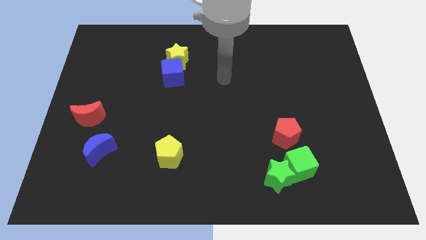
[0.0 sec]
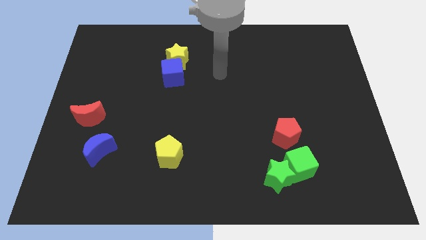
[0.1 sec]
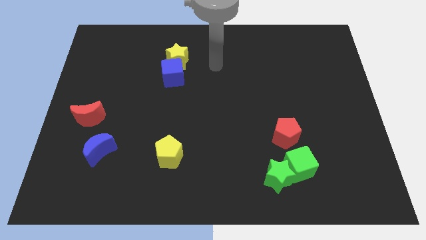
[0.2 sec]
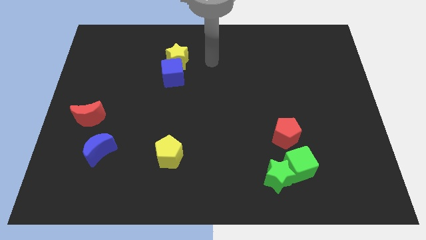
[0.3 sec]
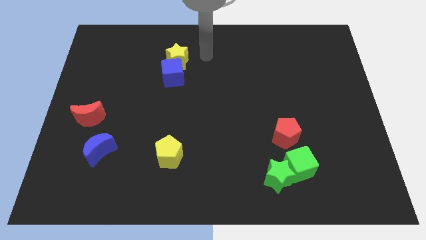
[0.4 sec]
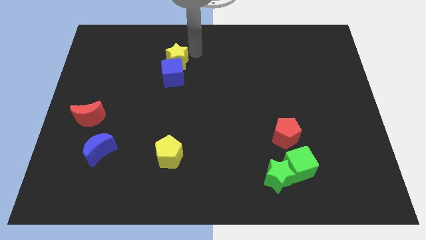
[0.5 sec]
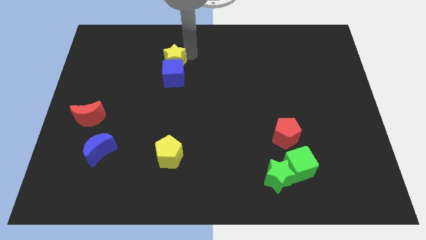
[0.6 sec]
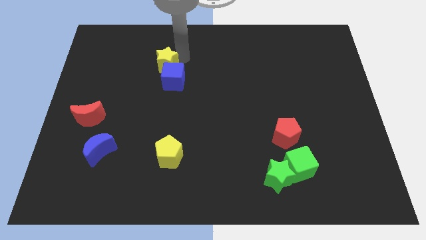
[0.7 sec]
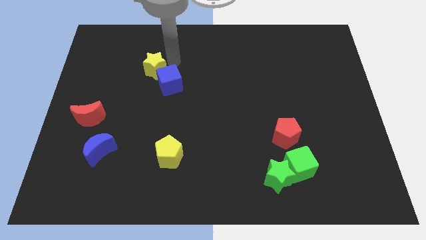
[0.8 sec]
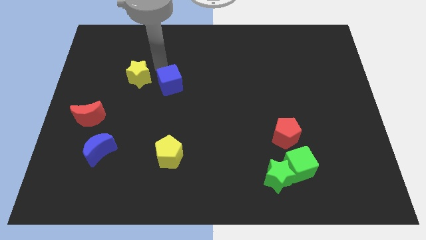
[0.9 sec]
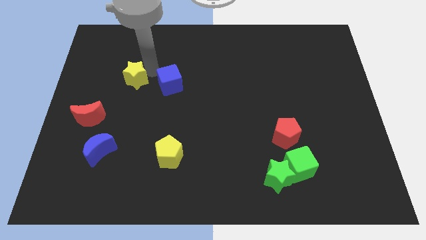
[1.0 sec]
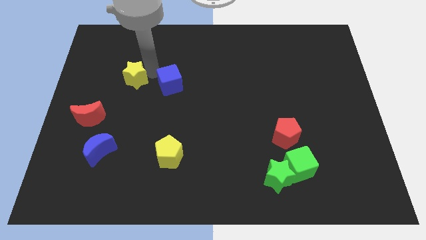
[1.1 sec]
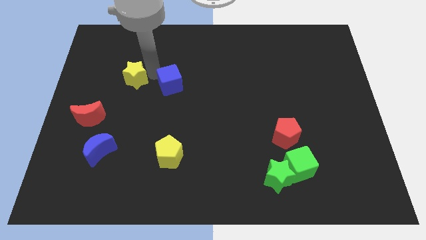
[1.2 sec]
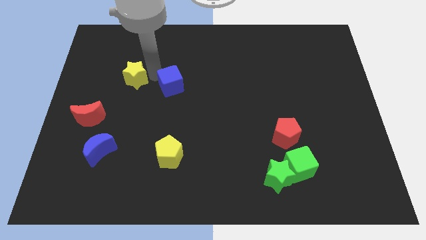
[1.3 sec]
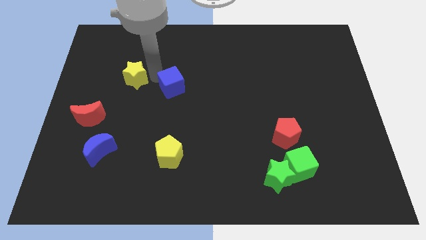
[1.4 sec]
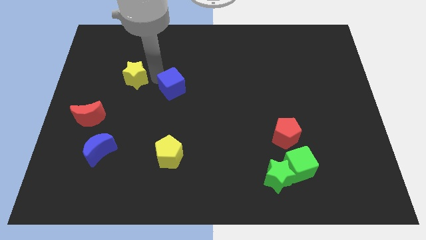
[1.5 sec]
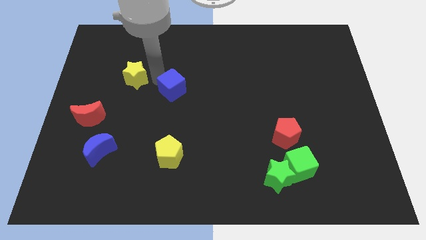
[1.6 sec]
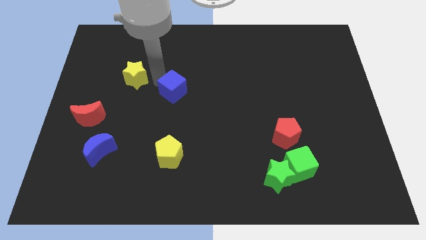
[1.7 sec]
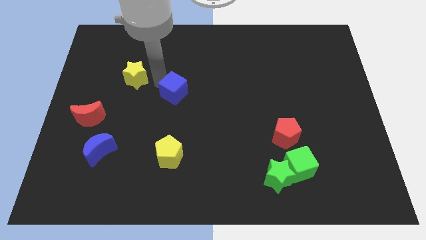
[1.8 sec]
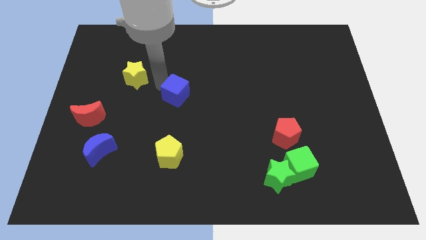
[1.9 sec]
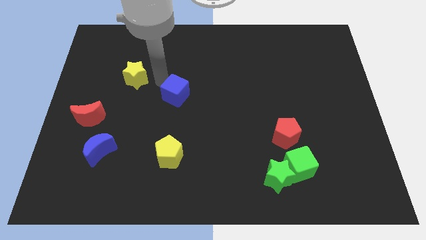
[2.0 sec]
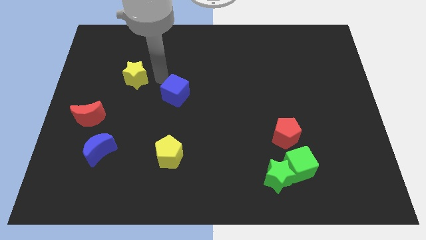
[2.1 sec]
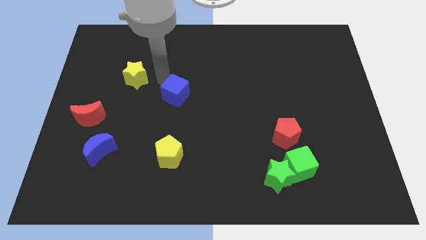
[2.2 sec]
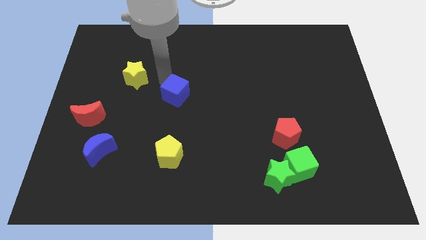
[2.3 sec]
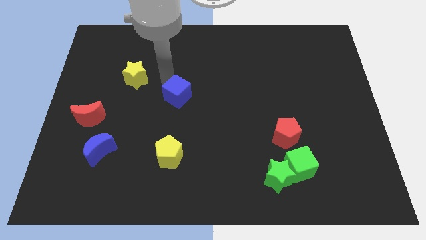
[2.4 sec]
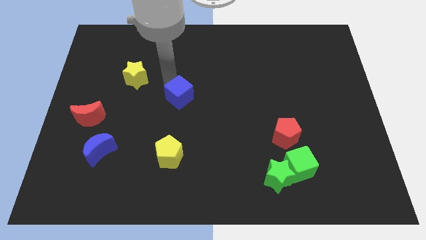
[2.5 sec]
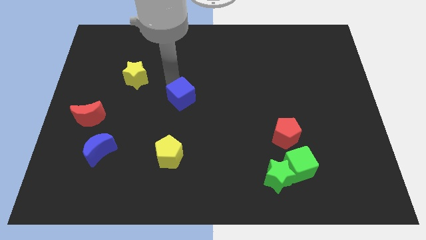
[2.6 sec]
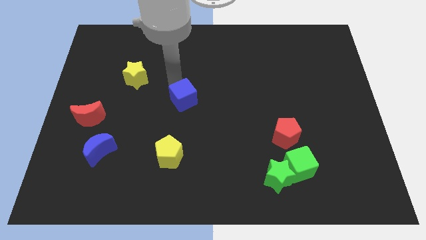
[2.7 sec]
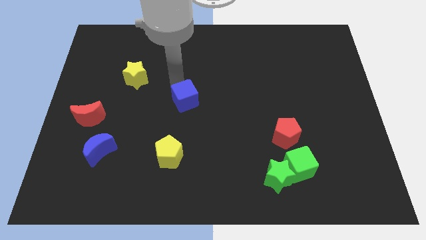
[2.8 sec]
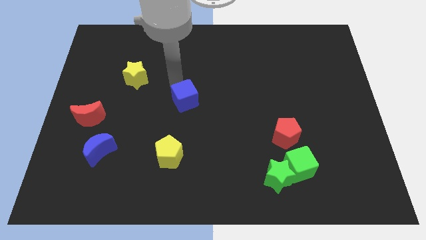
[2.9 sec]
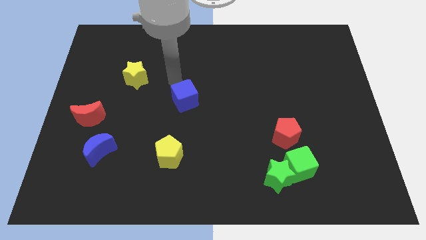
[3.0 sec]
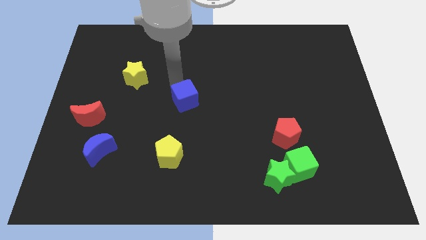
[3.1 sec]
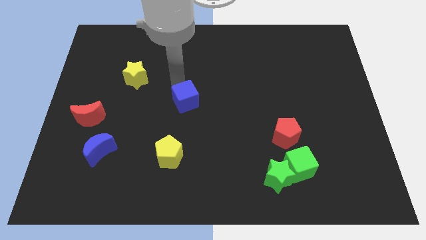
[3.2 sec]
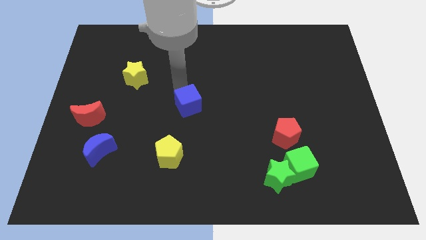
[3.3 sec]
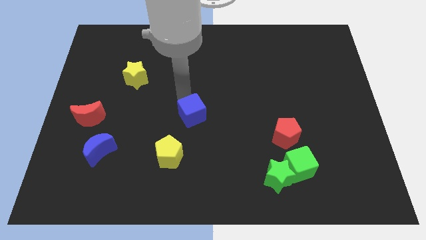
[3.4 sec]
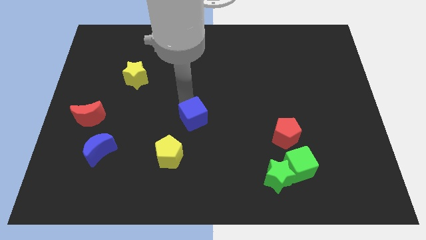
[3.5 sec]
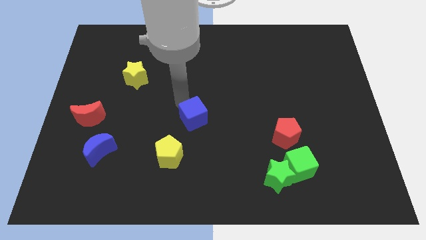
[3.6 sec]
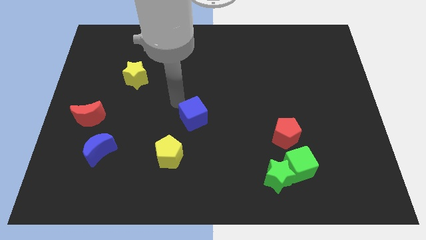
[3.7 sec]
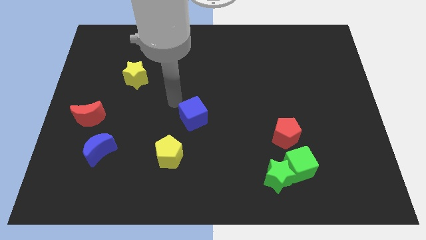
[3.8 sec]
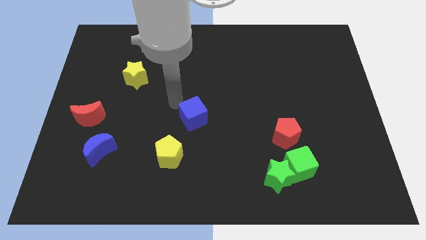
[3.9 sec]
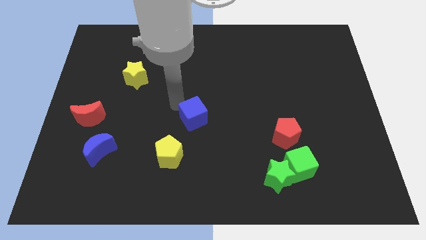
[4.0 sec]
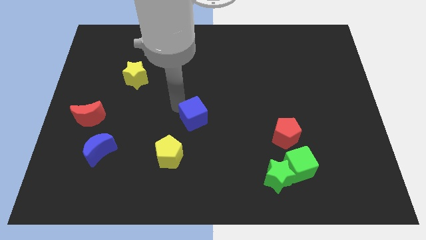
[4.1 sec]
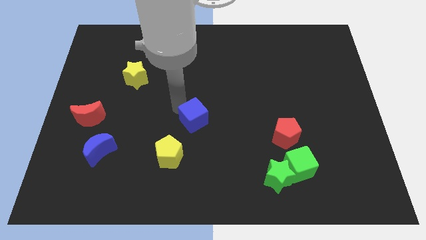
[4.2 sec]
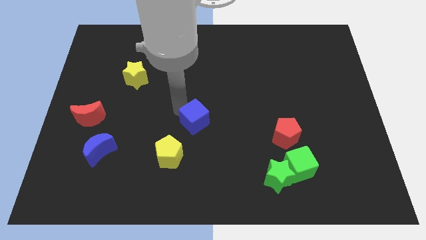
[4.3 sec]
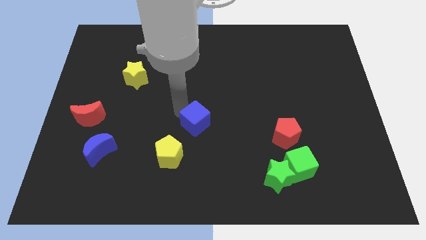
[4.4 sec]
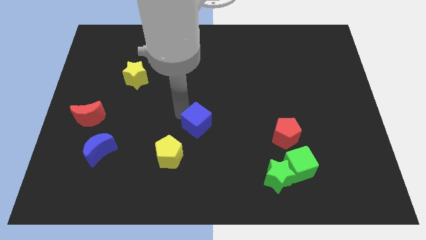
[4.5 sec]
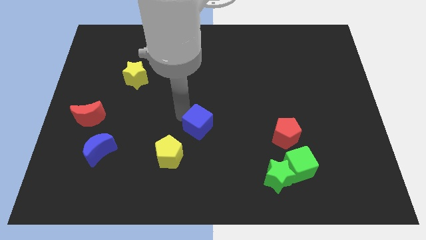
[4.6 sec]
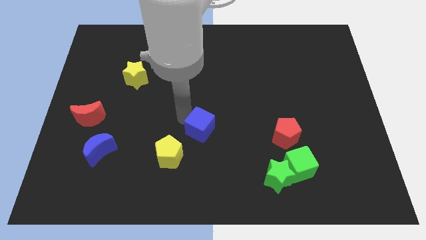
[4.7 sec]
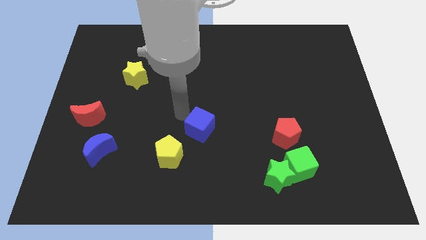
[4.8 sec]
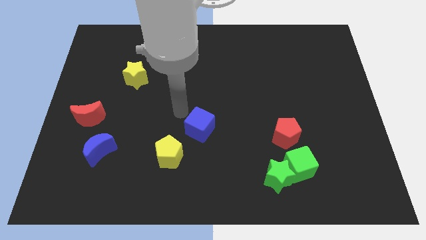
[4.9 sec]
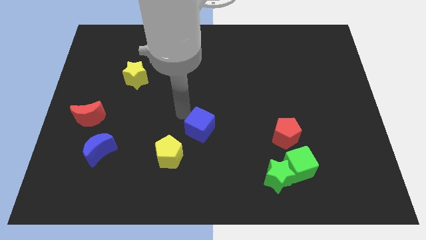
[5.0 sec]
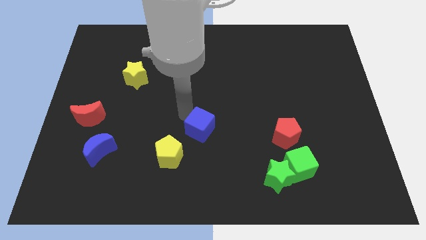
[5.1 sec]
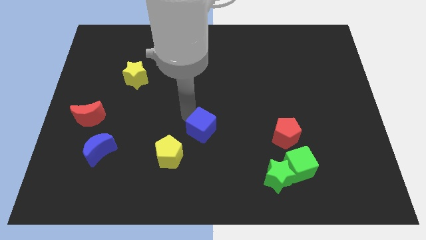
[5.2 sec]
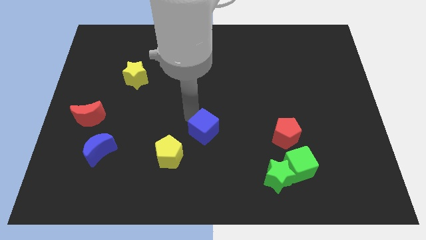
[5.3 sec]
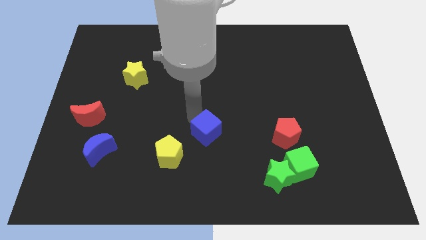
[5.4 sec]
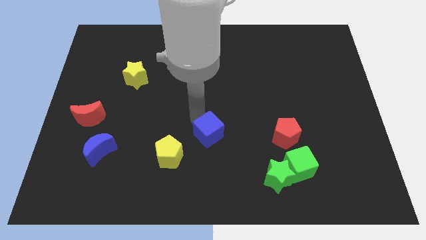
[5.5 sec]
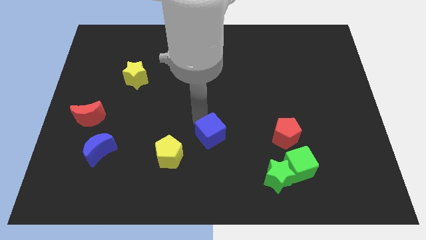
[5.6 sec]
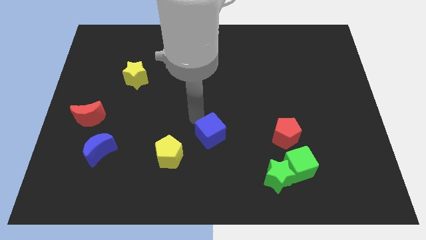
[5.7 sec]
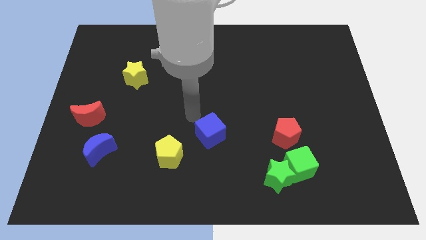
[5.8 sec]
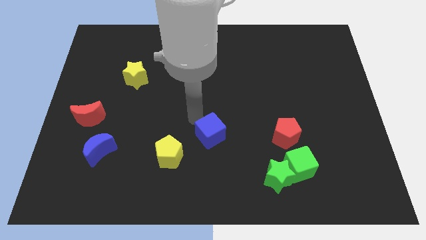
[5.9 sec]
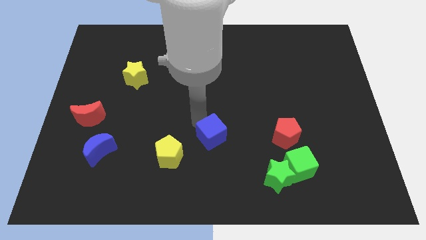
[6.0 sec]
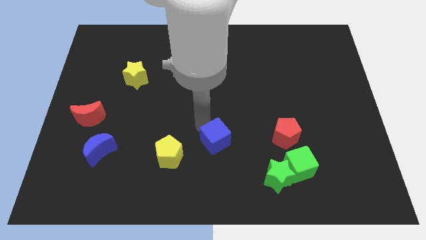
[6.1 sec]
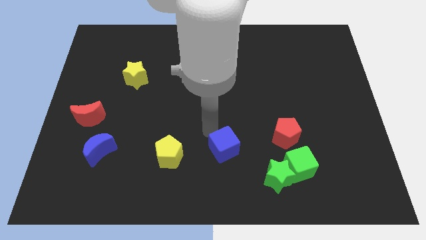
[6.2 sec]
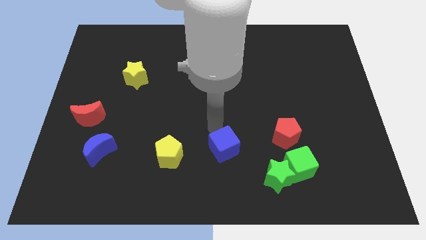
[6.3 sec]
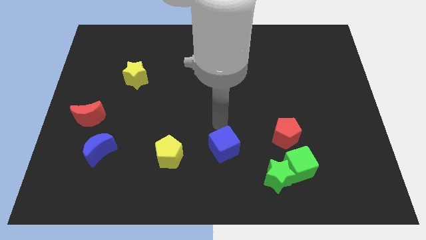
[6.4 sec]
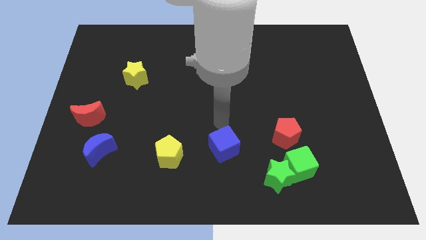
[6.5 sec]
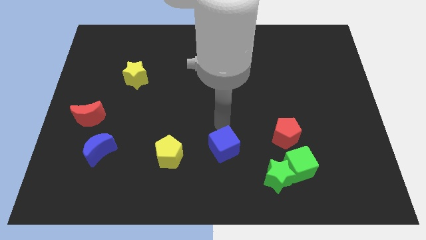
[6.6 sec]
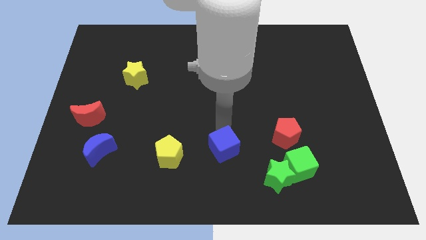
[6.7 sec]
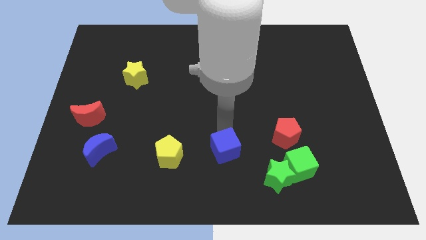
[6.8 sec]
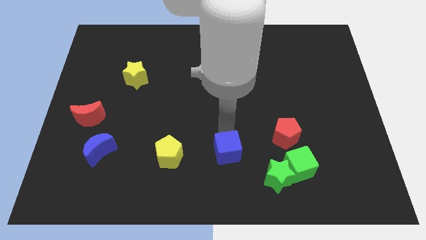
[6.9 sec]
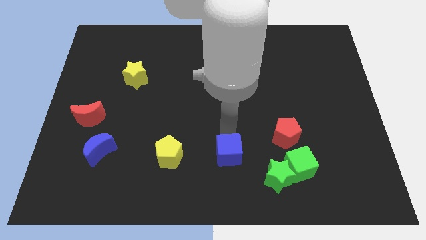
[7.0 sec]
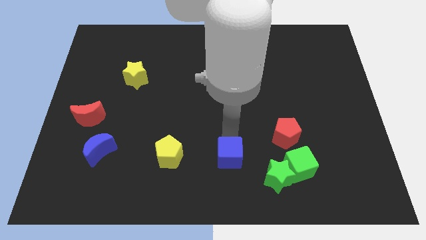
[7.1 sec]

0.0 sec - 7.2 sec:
move the blue cube to the left of the green star
